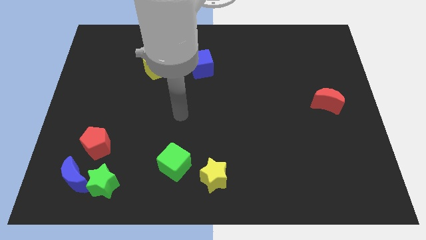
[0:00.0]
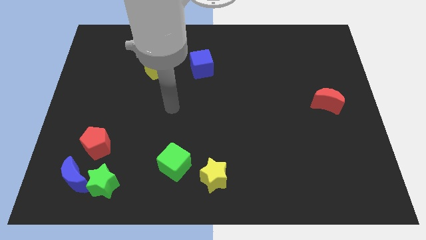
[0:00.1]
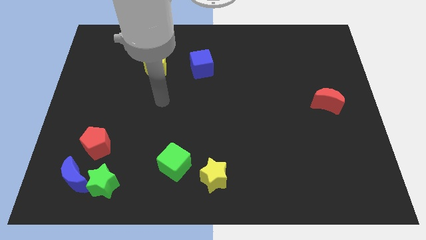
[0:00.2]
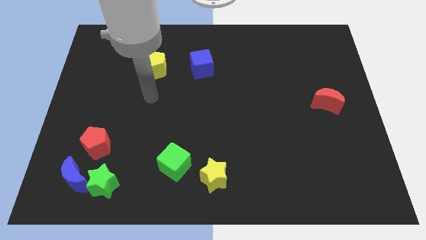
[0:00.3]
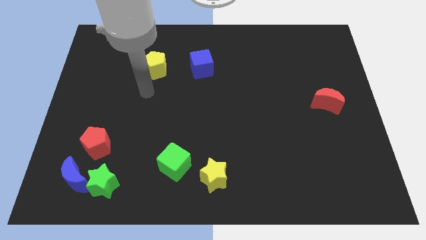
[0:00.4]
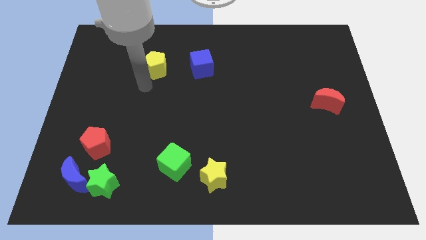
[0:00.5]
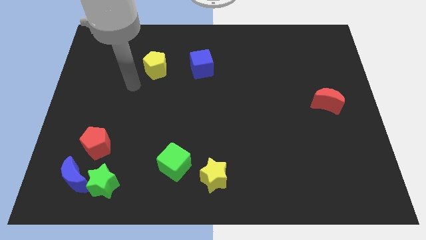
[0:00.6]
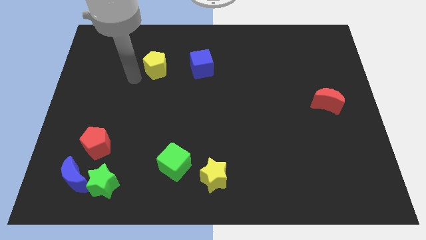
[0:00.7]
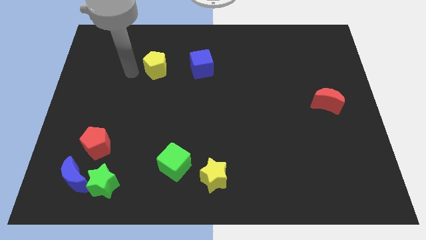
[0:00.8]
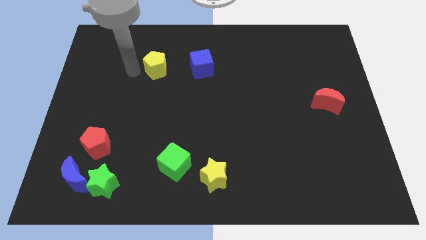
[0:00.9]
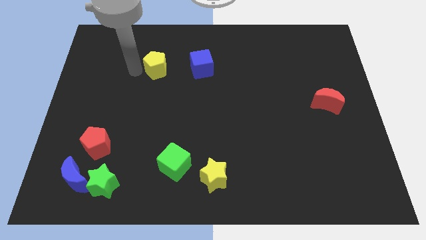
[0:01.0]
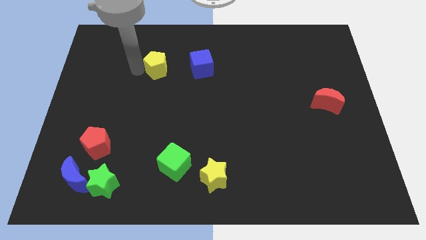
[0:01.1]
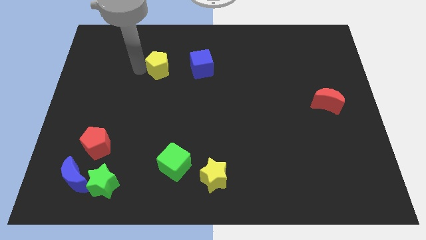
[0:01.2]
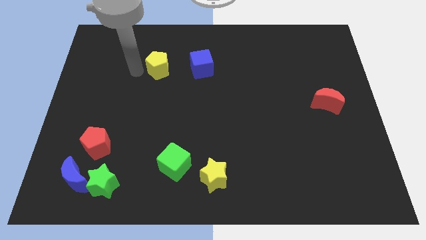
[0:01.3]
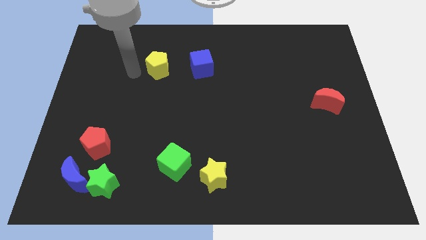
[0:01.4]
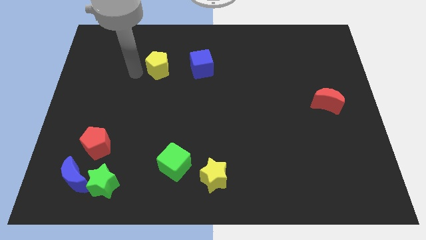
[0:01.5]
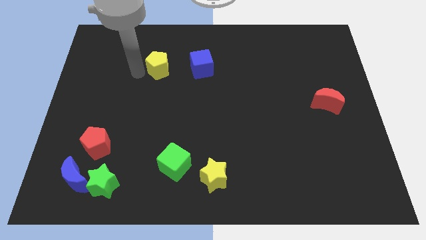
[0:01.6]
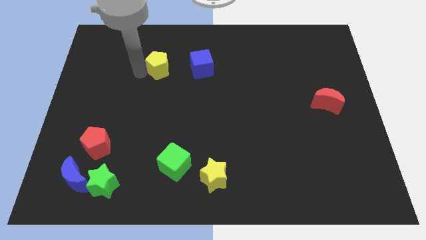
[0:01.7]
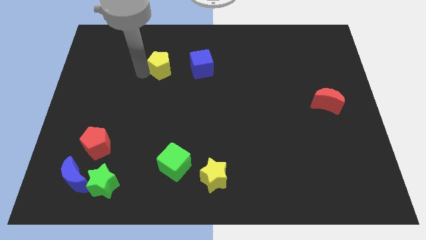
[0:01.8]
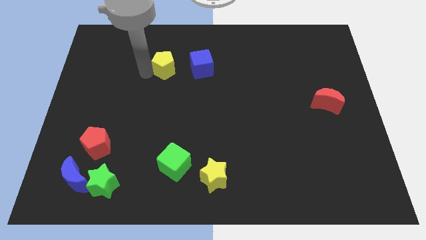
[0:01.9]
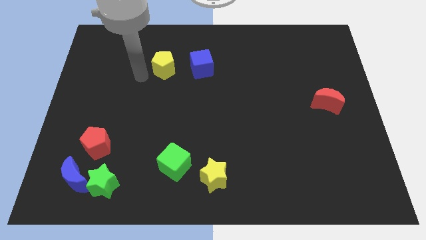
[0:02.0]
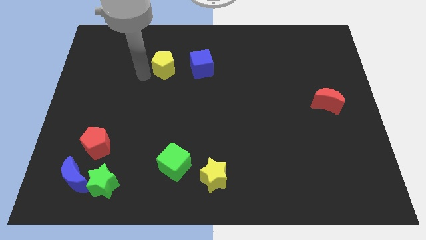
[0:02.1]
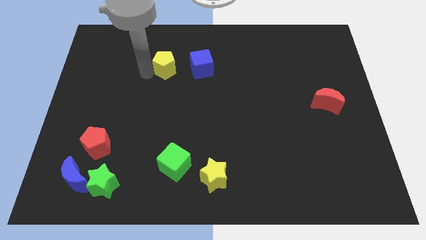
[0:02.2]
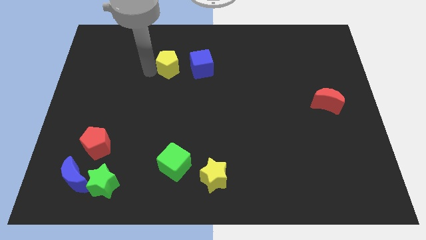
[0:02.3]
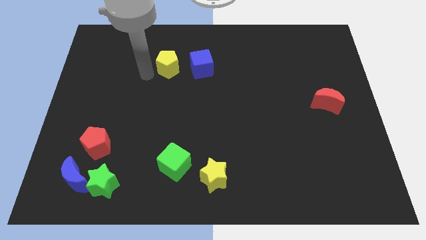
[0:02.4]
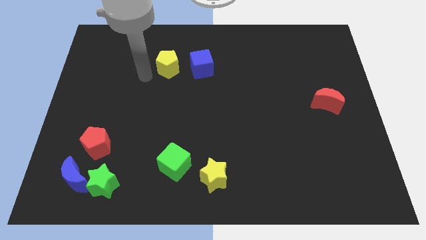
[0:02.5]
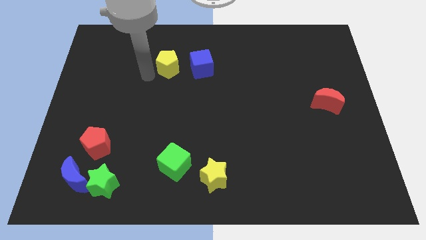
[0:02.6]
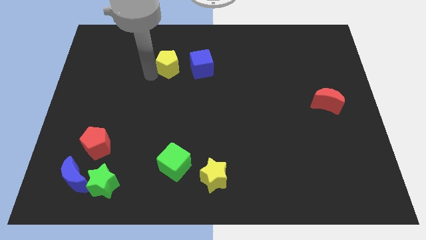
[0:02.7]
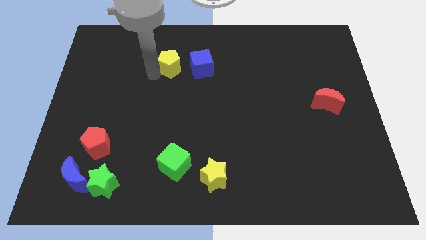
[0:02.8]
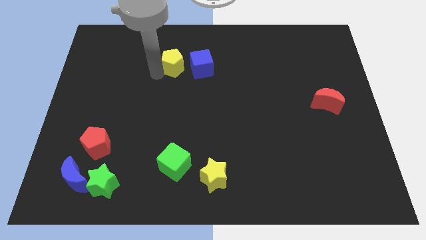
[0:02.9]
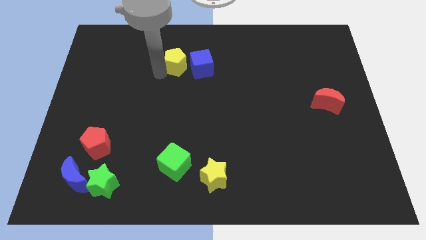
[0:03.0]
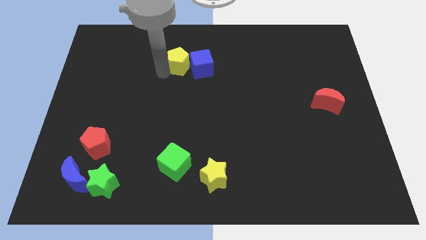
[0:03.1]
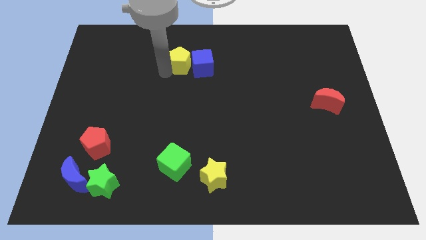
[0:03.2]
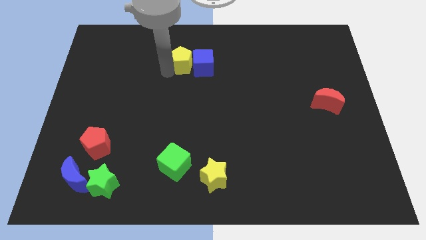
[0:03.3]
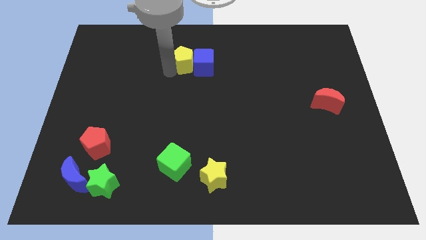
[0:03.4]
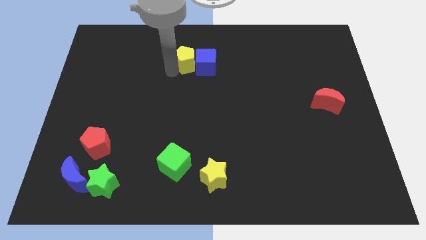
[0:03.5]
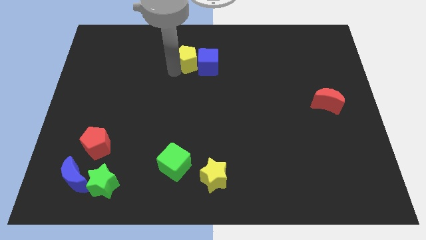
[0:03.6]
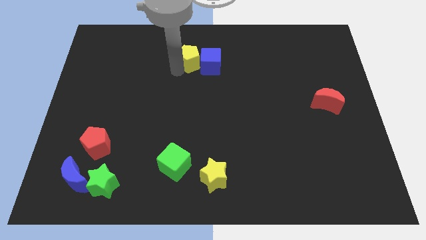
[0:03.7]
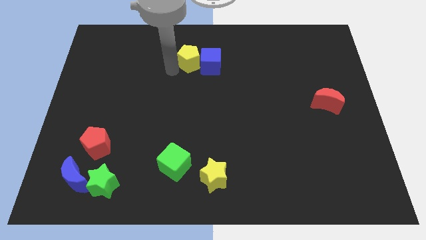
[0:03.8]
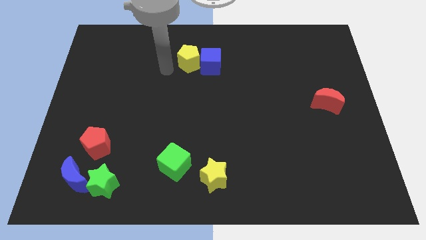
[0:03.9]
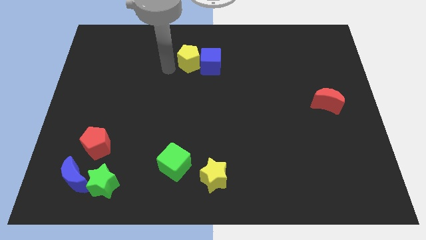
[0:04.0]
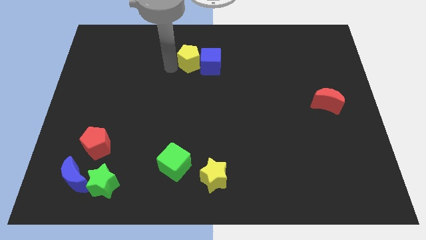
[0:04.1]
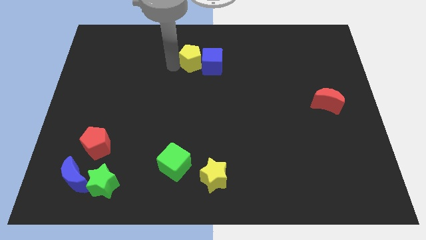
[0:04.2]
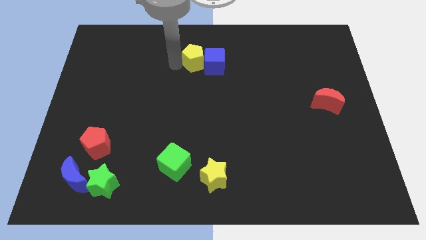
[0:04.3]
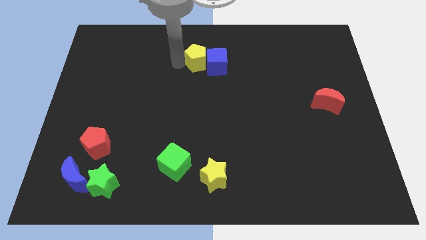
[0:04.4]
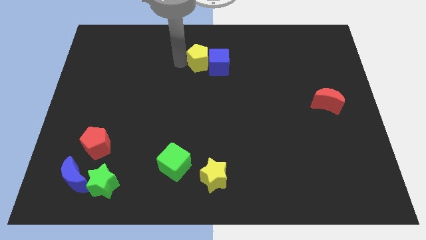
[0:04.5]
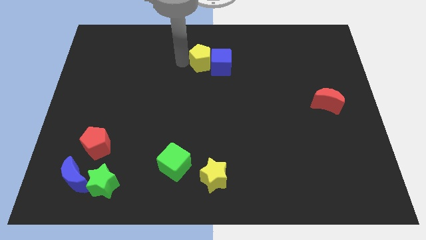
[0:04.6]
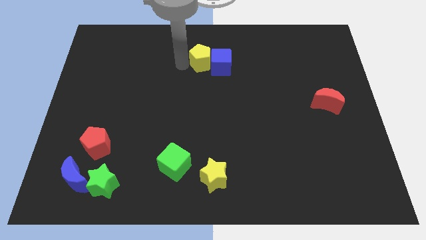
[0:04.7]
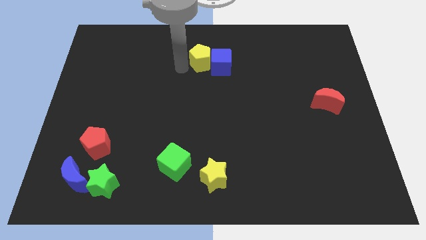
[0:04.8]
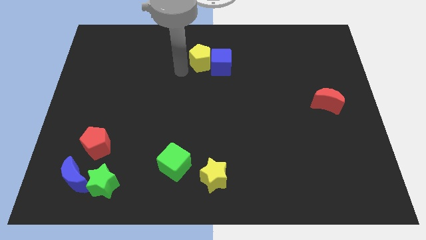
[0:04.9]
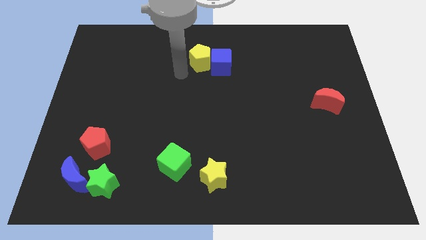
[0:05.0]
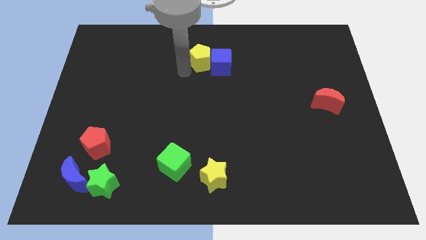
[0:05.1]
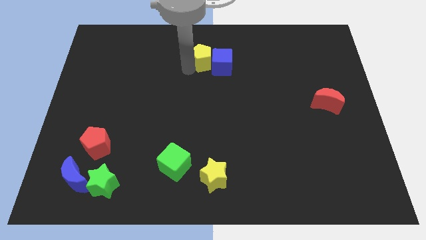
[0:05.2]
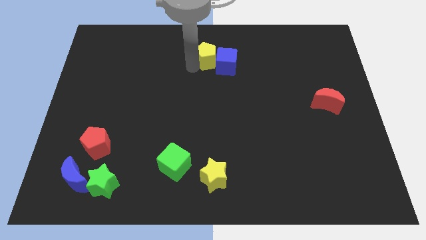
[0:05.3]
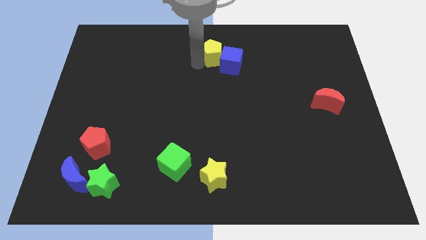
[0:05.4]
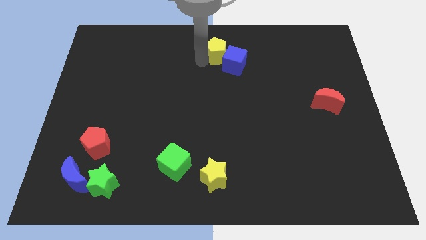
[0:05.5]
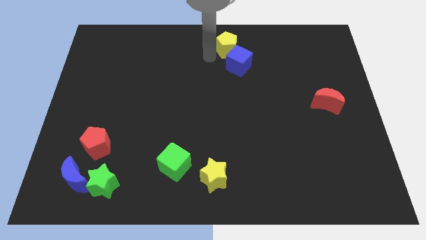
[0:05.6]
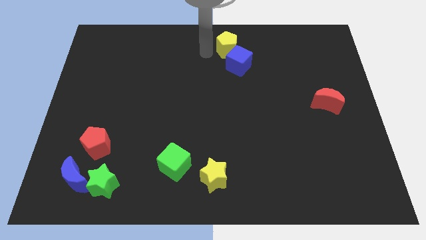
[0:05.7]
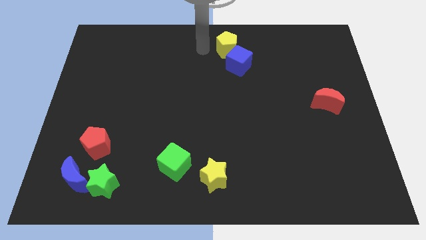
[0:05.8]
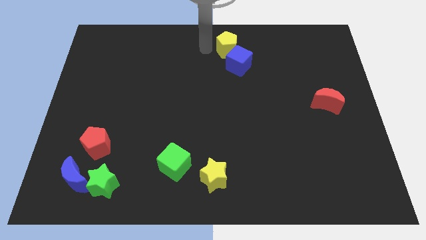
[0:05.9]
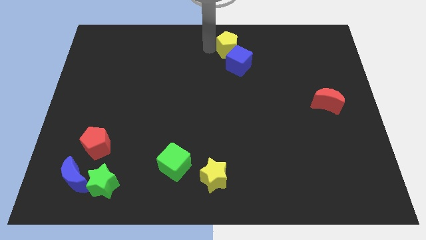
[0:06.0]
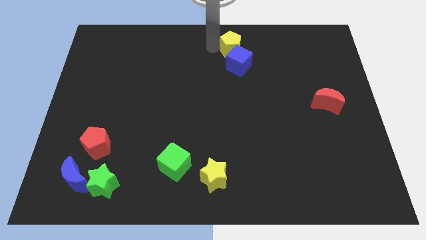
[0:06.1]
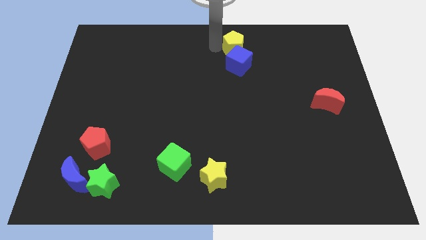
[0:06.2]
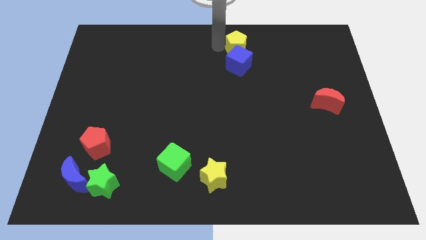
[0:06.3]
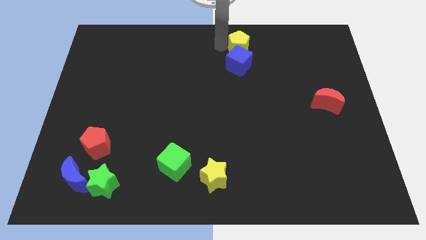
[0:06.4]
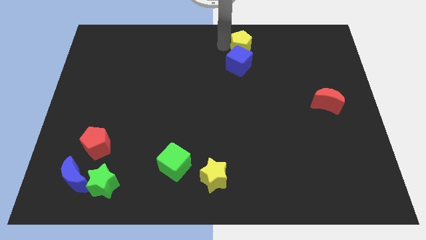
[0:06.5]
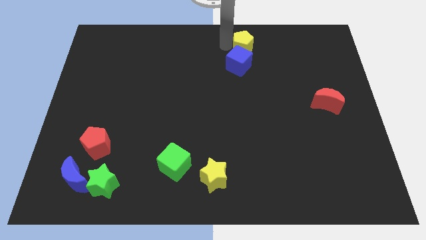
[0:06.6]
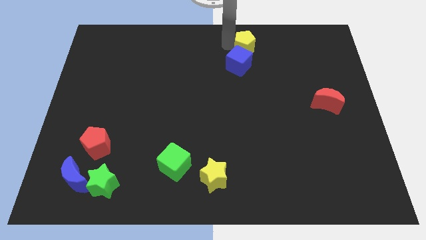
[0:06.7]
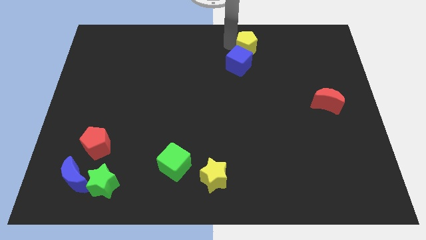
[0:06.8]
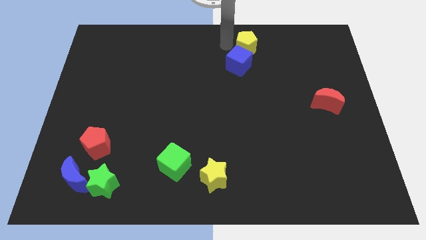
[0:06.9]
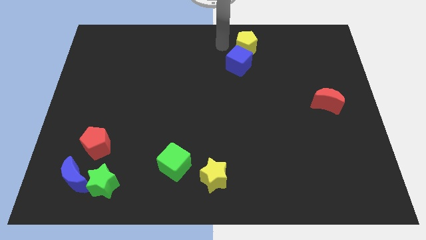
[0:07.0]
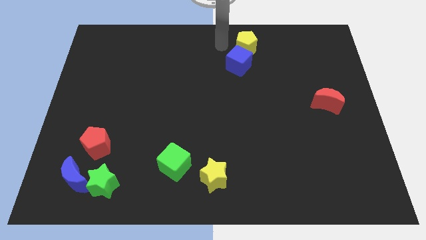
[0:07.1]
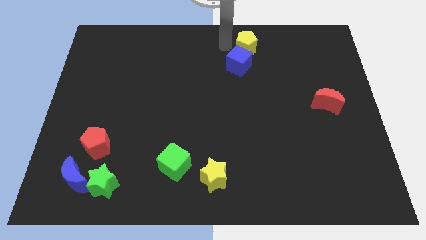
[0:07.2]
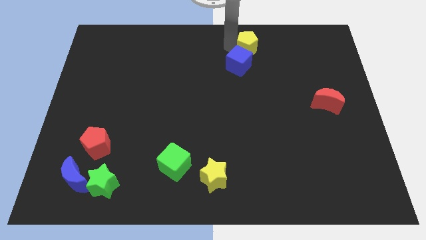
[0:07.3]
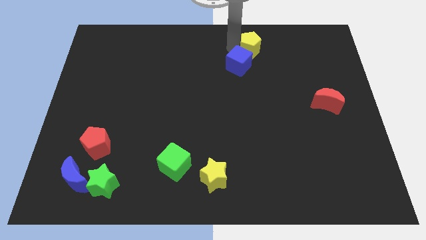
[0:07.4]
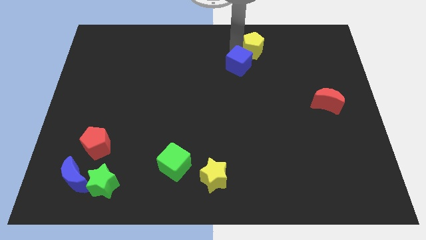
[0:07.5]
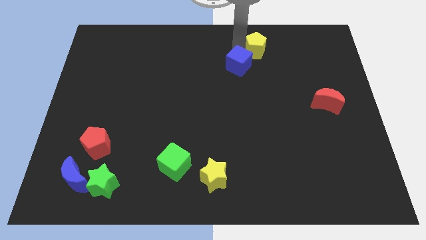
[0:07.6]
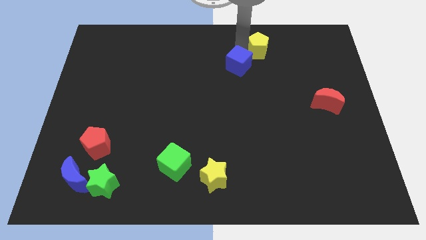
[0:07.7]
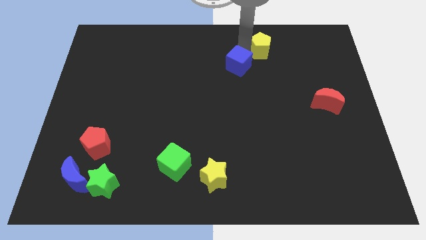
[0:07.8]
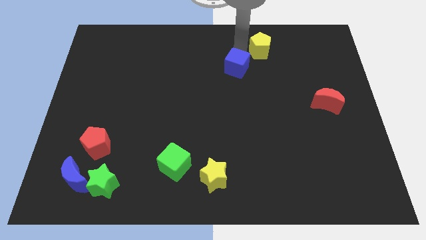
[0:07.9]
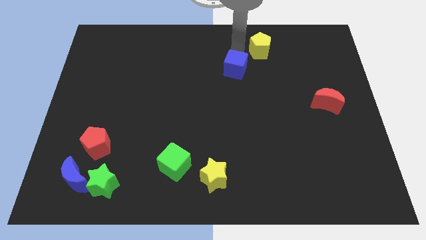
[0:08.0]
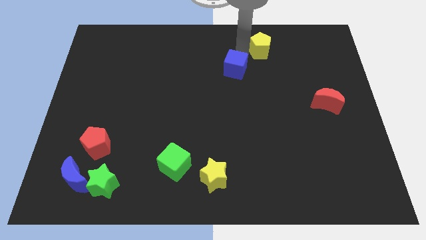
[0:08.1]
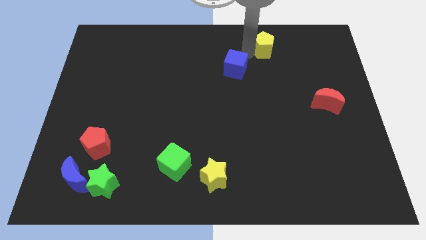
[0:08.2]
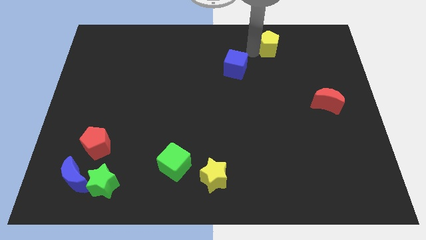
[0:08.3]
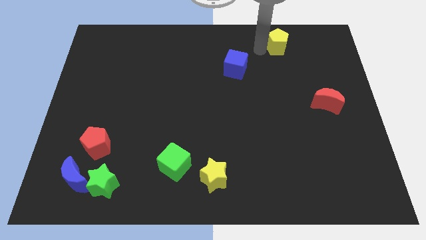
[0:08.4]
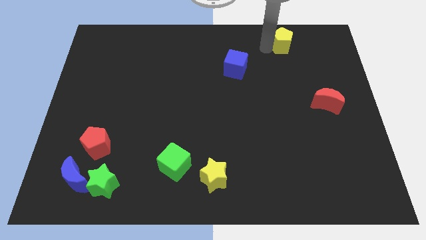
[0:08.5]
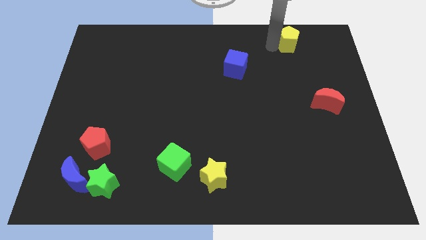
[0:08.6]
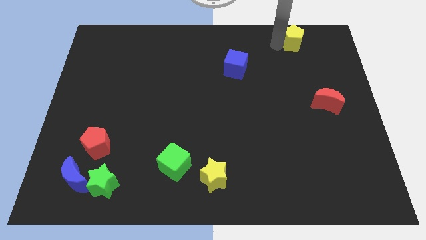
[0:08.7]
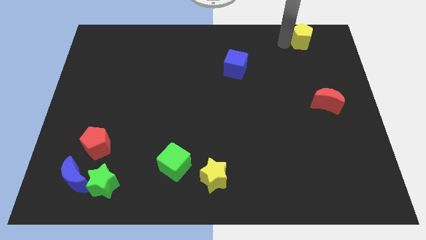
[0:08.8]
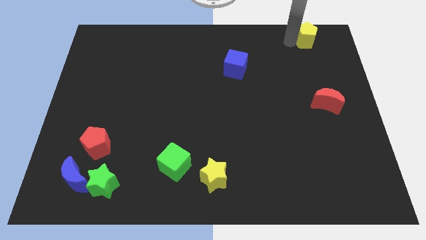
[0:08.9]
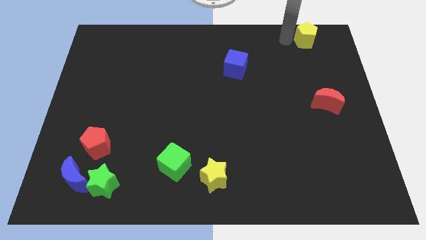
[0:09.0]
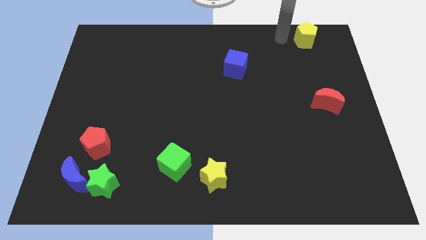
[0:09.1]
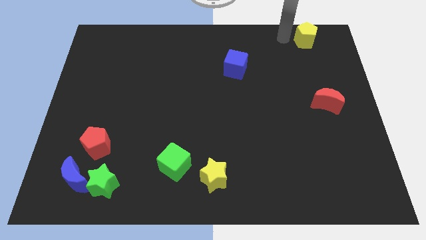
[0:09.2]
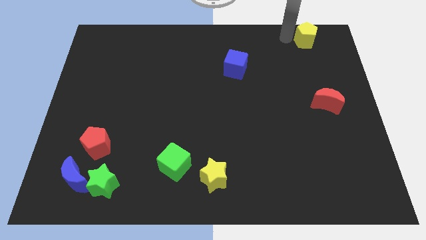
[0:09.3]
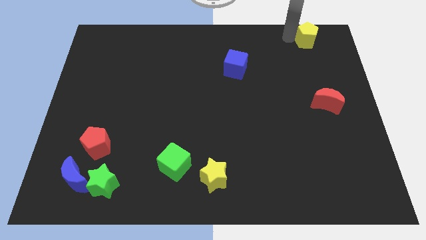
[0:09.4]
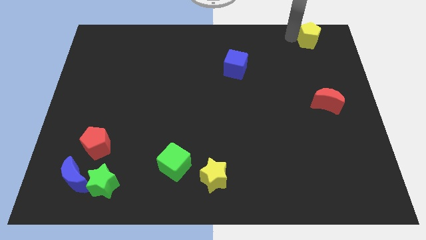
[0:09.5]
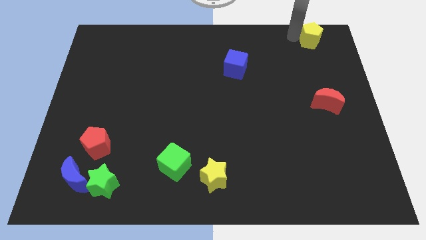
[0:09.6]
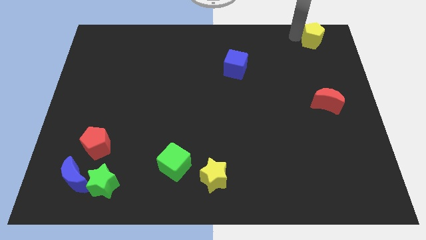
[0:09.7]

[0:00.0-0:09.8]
slide the yellow pentagon to the top right
